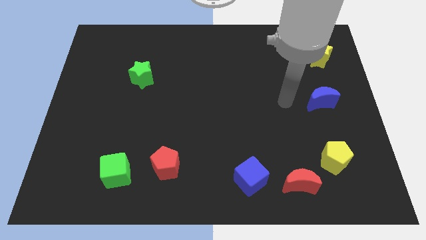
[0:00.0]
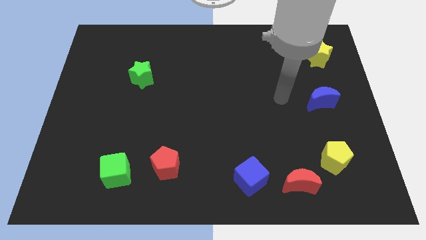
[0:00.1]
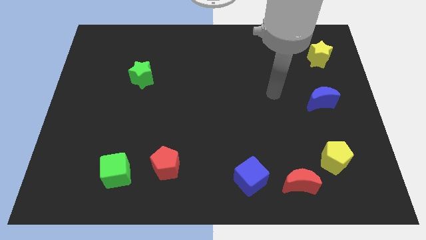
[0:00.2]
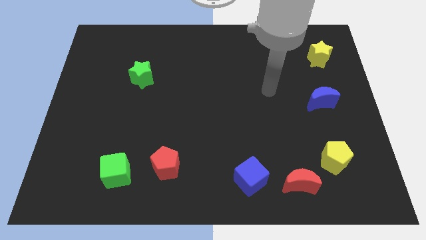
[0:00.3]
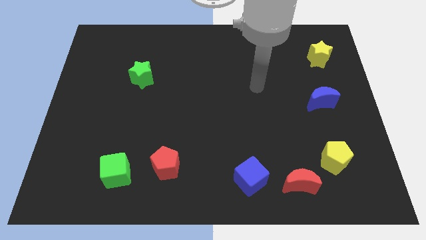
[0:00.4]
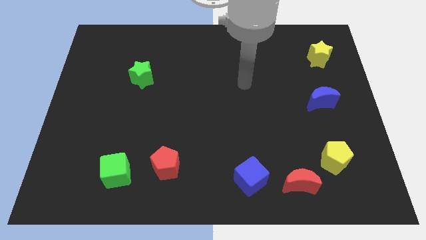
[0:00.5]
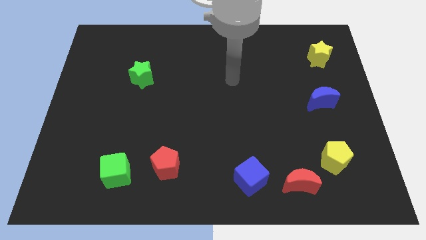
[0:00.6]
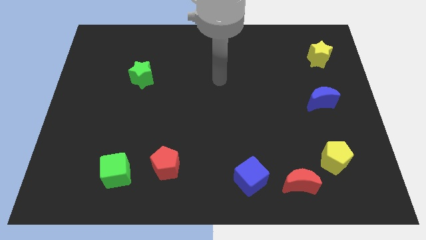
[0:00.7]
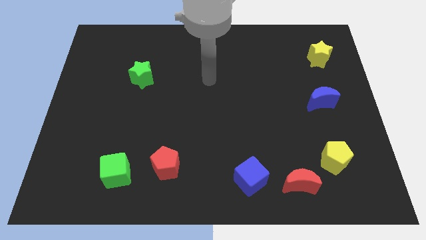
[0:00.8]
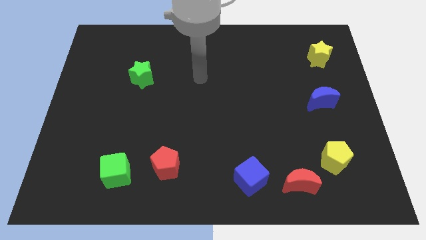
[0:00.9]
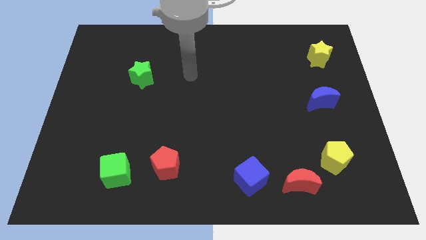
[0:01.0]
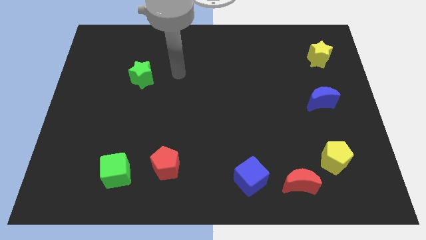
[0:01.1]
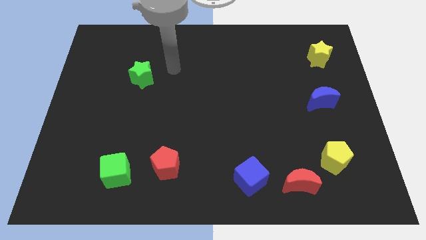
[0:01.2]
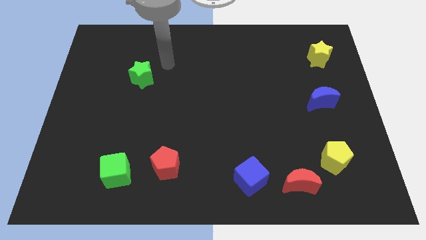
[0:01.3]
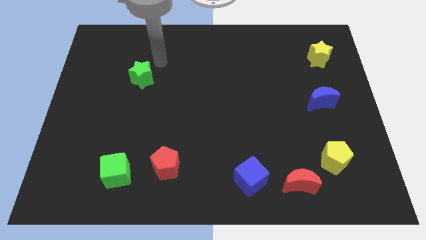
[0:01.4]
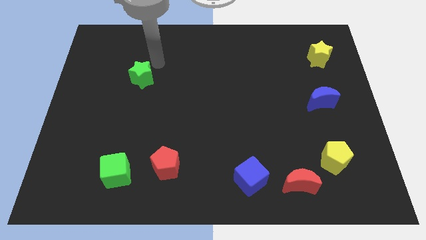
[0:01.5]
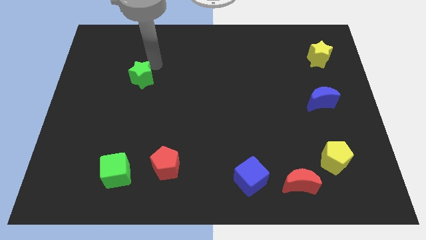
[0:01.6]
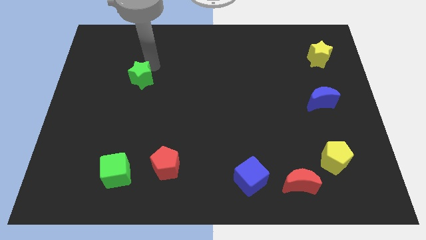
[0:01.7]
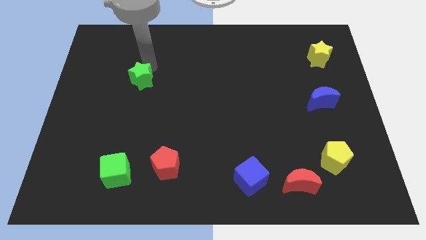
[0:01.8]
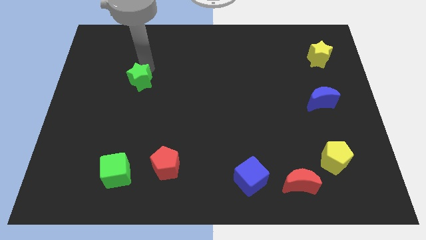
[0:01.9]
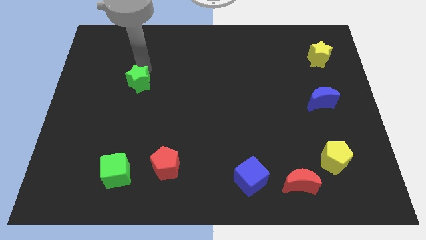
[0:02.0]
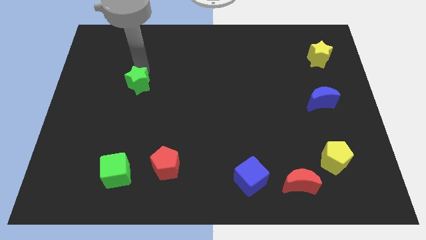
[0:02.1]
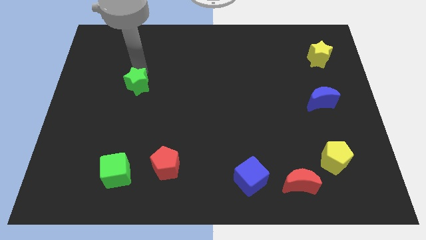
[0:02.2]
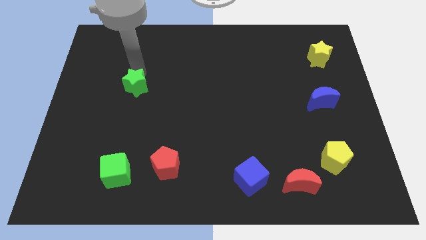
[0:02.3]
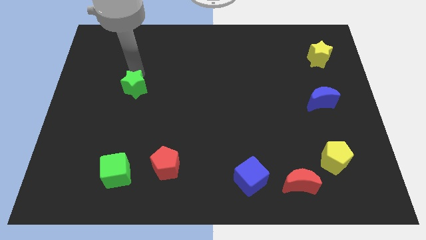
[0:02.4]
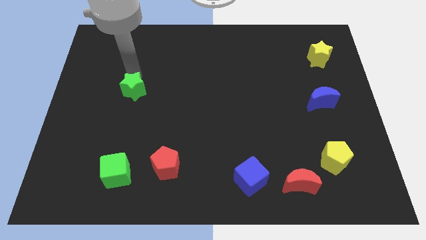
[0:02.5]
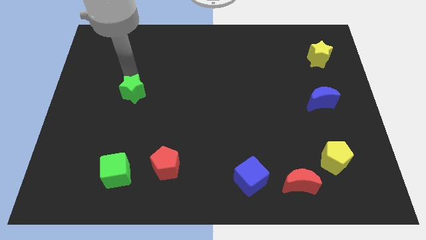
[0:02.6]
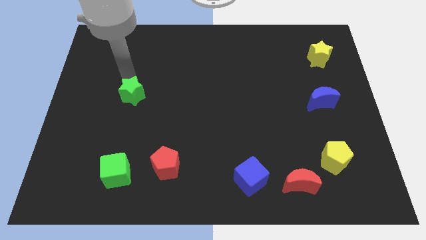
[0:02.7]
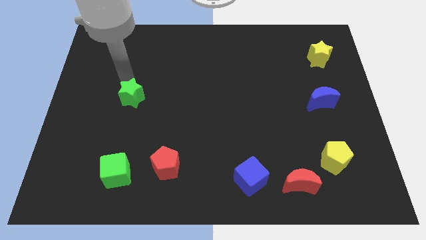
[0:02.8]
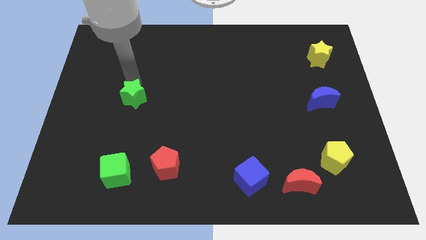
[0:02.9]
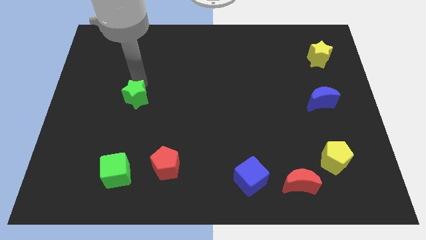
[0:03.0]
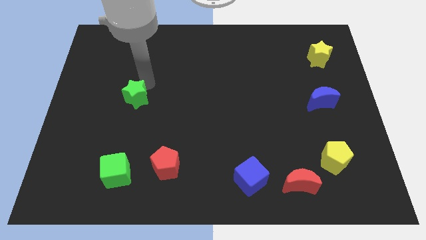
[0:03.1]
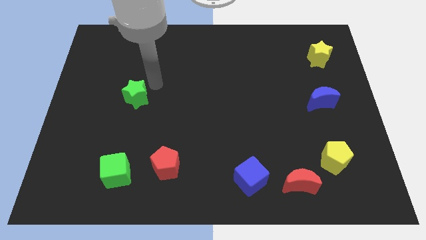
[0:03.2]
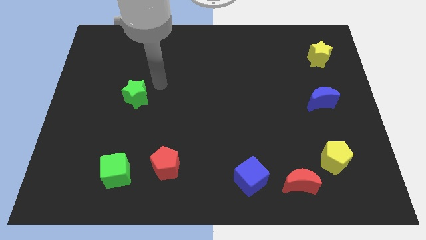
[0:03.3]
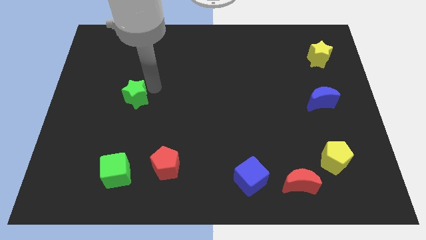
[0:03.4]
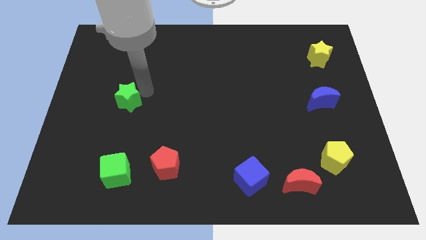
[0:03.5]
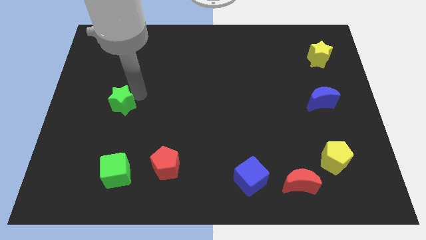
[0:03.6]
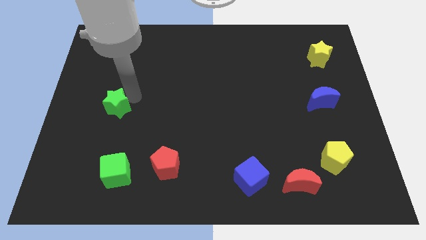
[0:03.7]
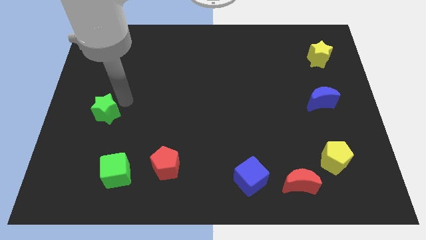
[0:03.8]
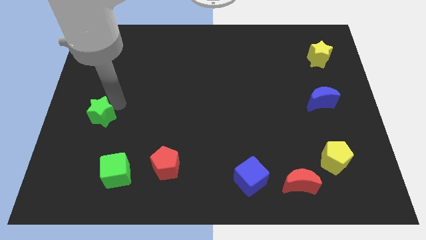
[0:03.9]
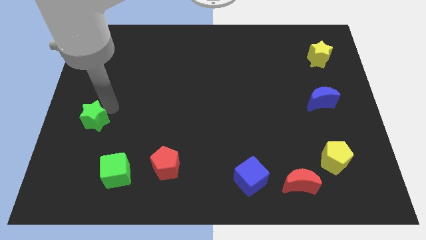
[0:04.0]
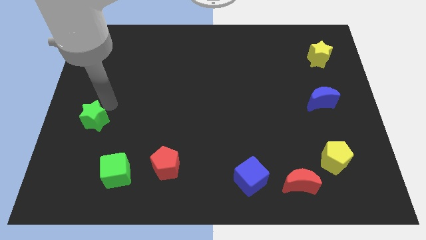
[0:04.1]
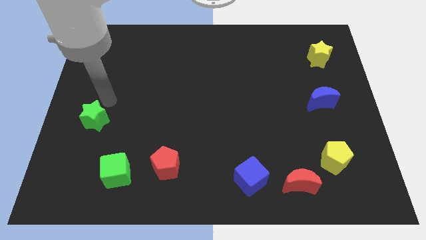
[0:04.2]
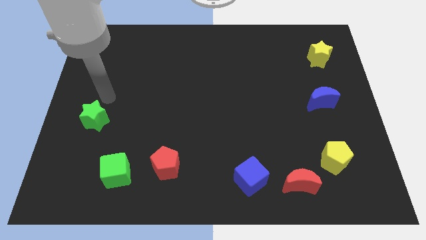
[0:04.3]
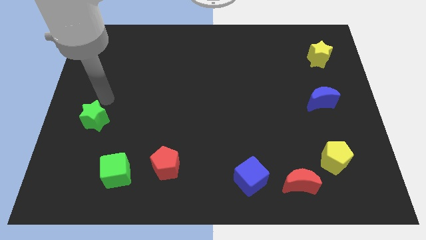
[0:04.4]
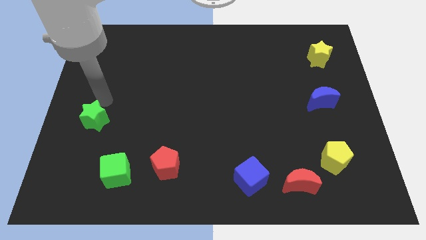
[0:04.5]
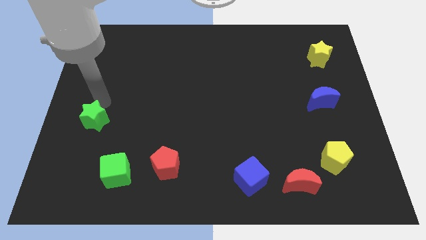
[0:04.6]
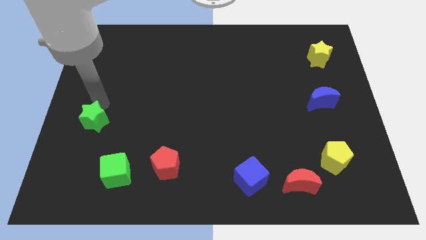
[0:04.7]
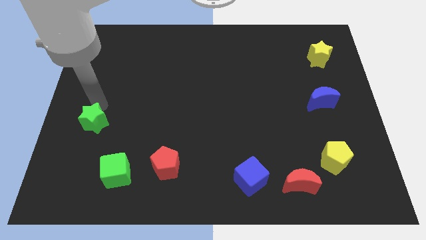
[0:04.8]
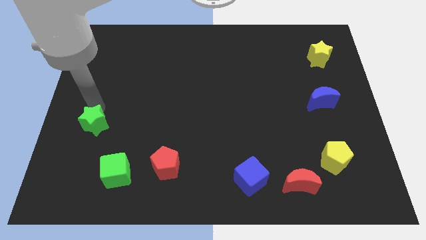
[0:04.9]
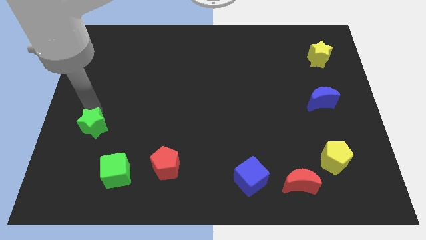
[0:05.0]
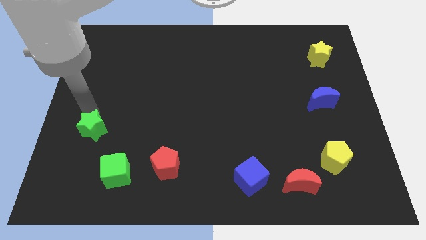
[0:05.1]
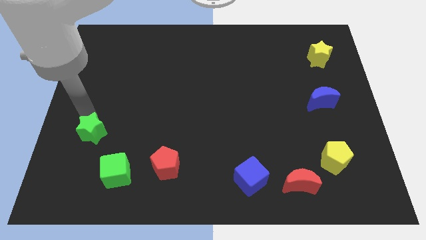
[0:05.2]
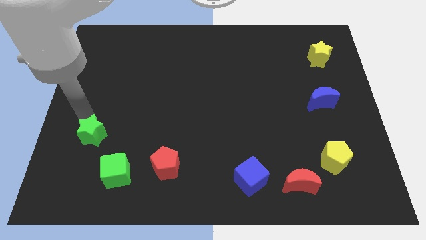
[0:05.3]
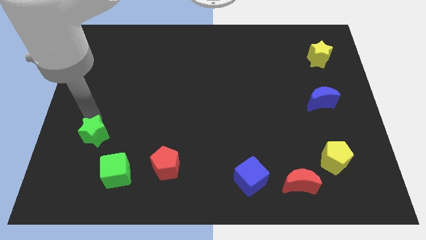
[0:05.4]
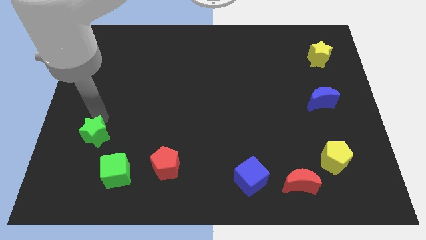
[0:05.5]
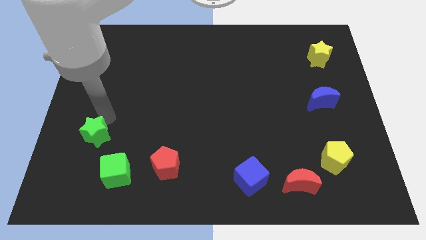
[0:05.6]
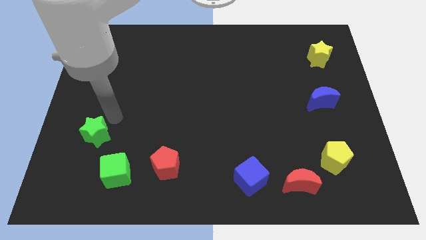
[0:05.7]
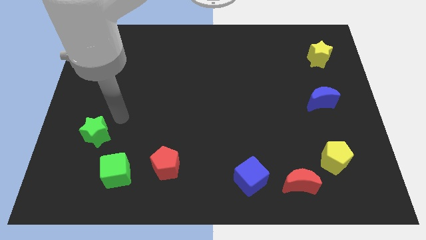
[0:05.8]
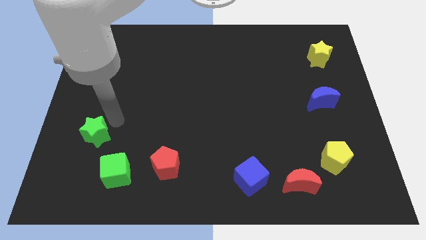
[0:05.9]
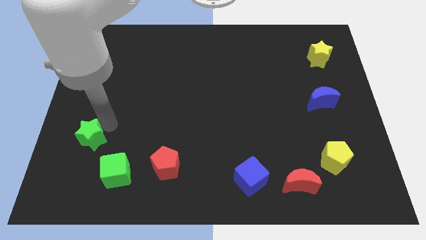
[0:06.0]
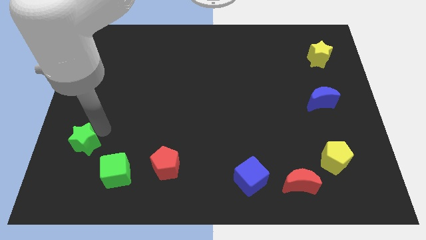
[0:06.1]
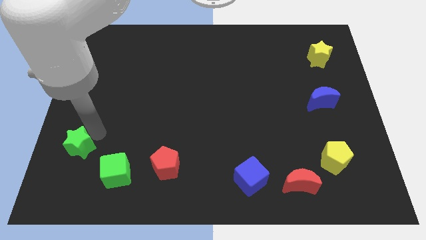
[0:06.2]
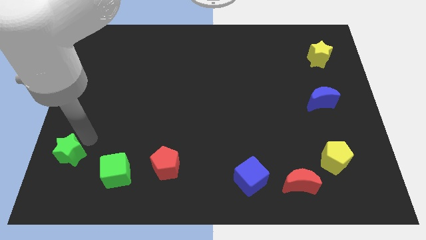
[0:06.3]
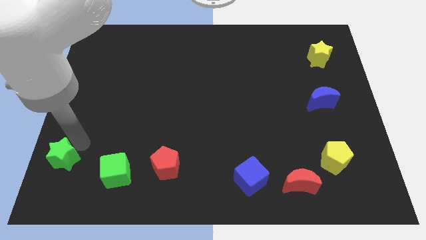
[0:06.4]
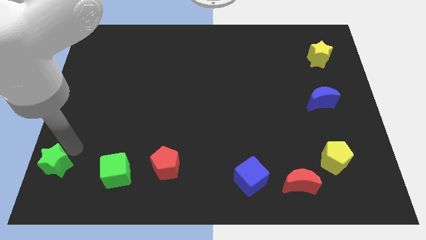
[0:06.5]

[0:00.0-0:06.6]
put the green star to the bottom left corner

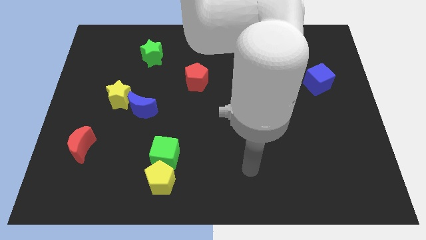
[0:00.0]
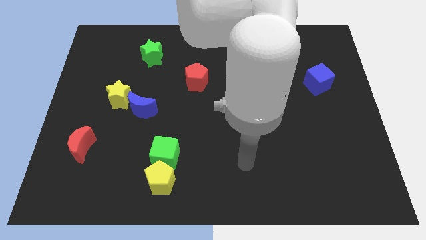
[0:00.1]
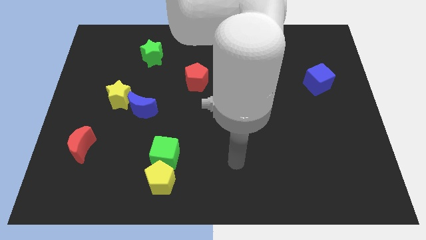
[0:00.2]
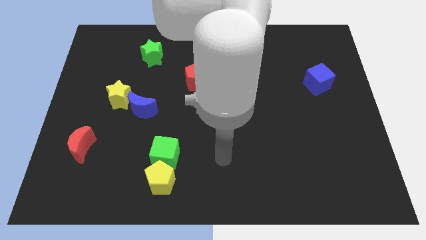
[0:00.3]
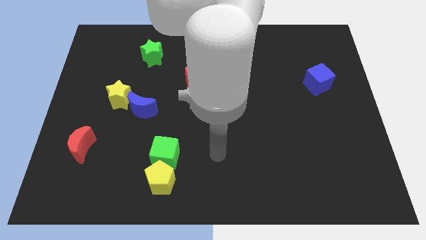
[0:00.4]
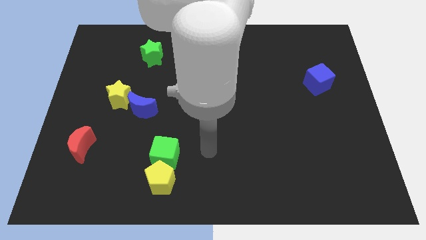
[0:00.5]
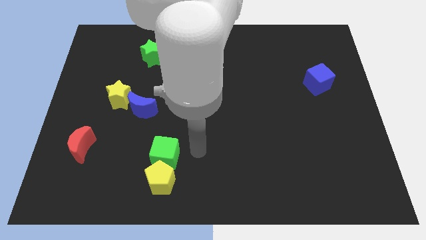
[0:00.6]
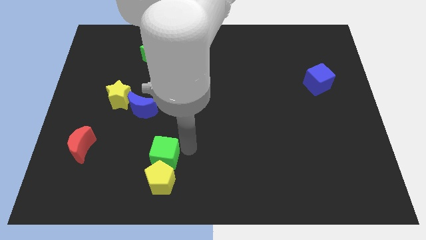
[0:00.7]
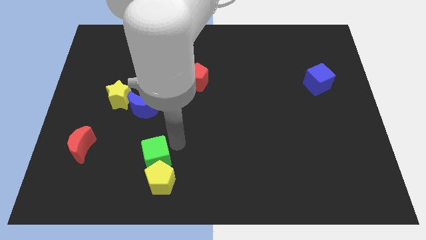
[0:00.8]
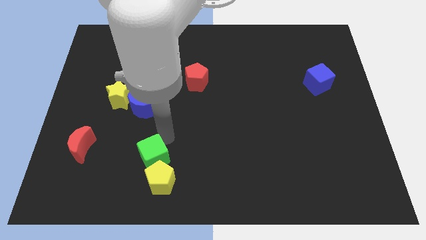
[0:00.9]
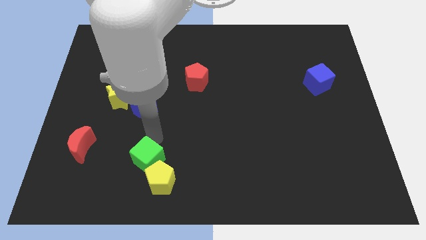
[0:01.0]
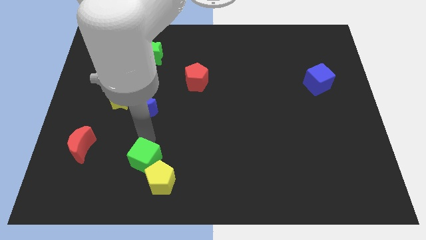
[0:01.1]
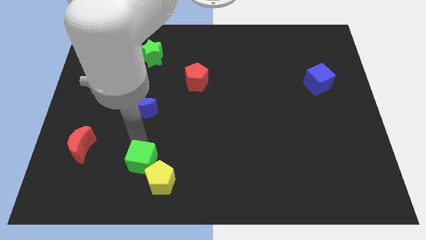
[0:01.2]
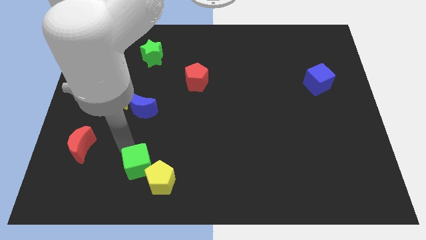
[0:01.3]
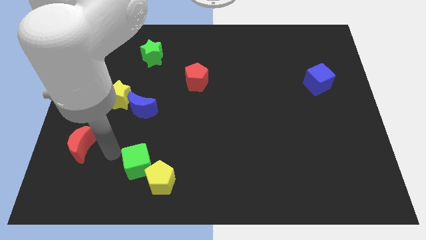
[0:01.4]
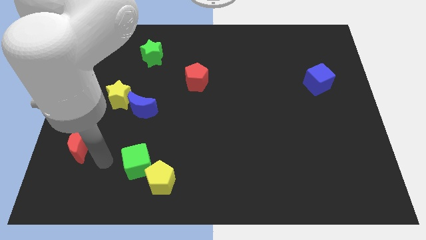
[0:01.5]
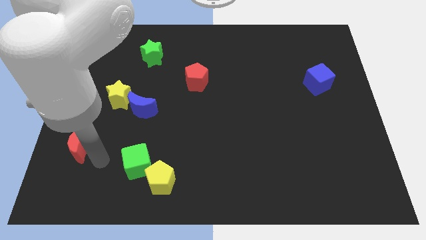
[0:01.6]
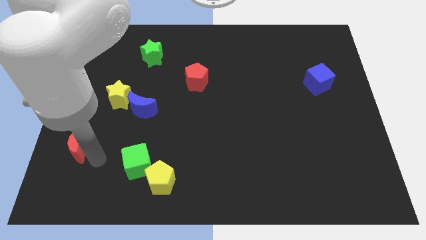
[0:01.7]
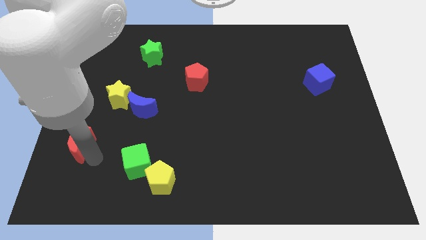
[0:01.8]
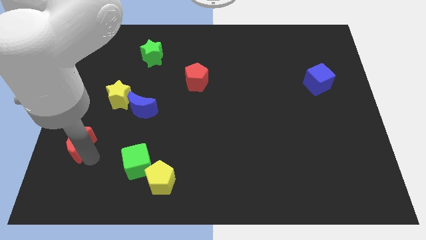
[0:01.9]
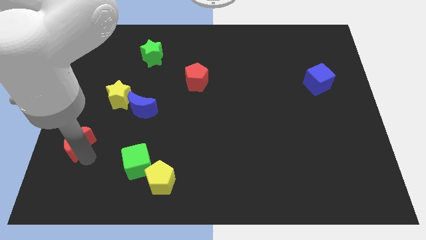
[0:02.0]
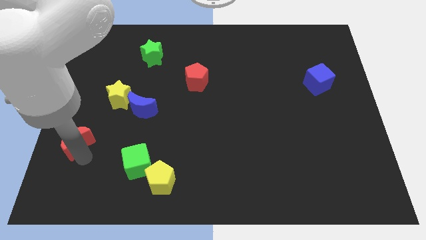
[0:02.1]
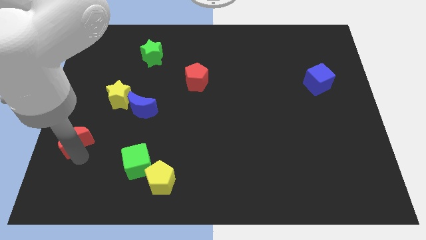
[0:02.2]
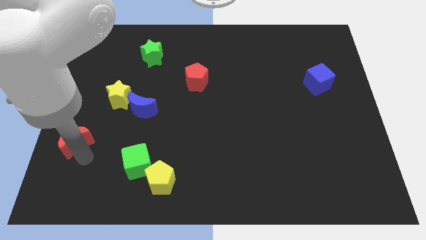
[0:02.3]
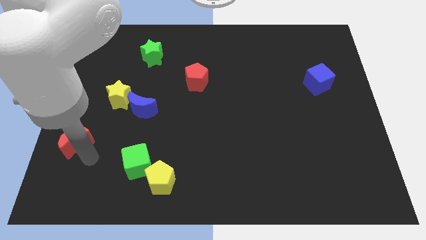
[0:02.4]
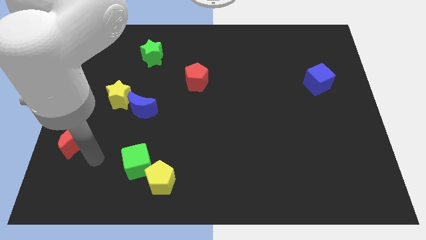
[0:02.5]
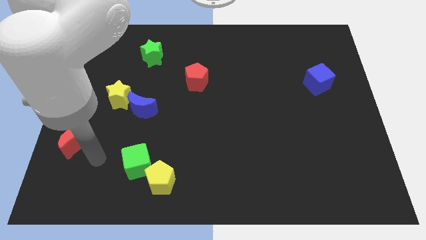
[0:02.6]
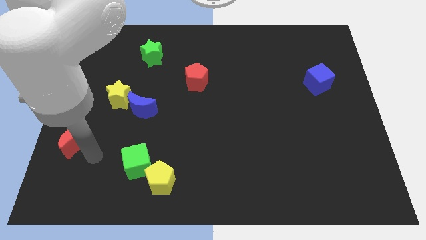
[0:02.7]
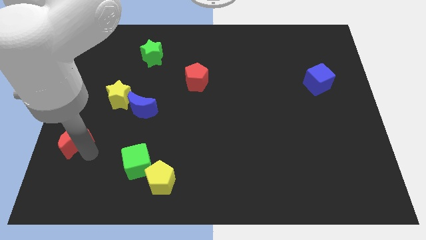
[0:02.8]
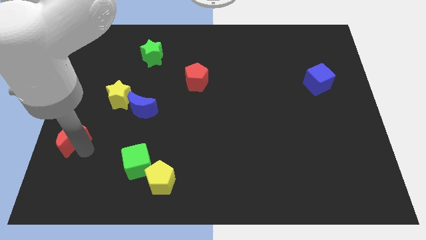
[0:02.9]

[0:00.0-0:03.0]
push the red moon to the left side of the board
